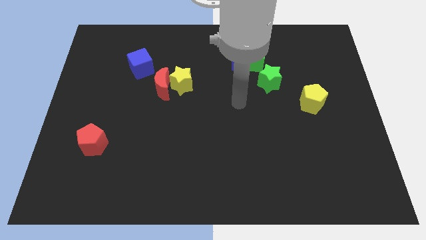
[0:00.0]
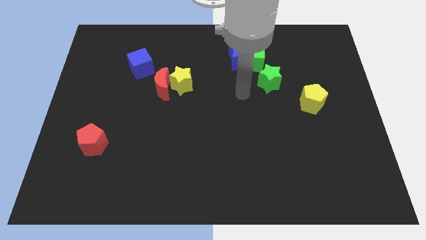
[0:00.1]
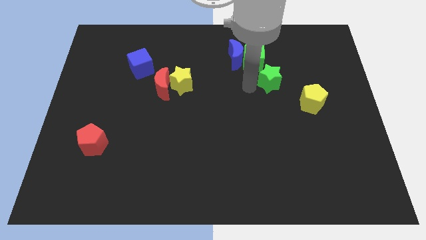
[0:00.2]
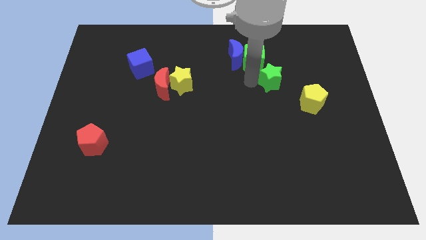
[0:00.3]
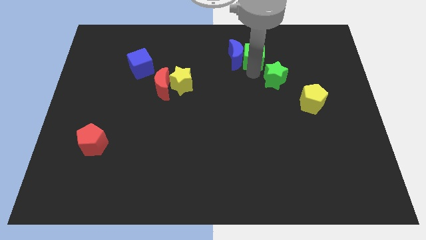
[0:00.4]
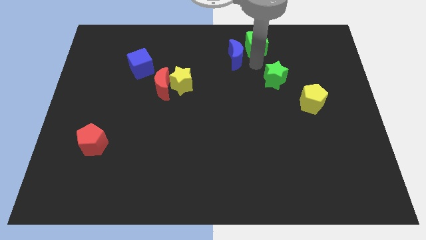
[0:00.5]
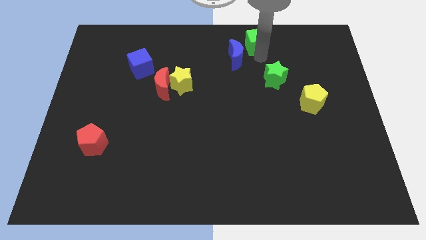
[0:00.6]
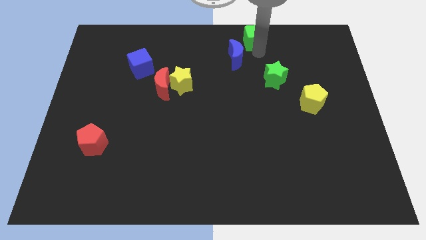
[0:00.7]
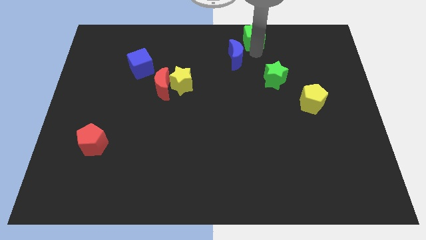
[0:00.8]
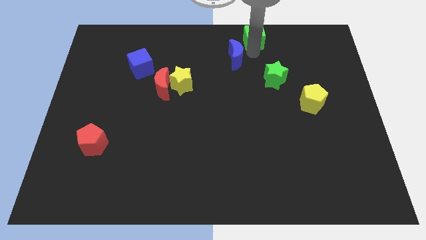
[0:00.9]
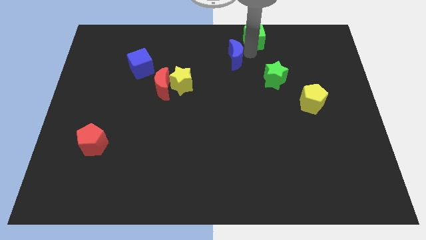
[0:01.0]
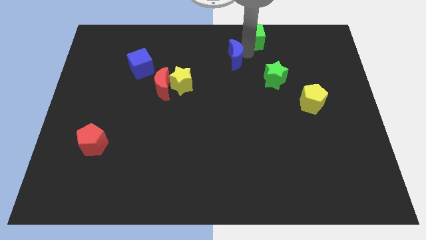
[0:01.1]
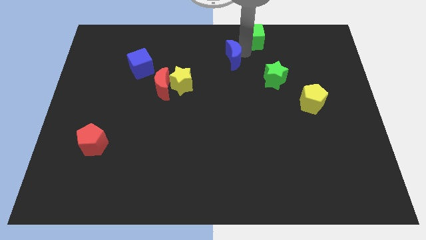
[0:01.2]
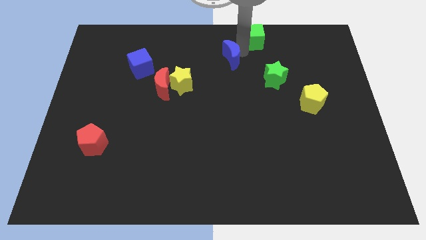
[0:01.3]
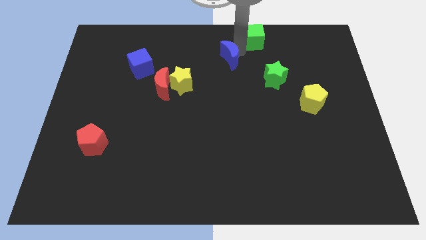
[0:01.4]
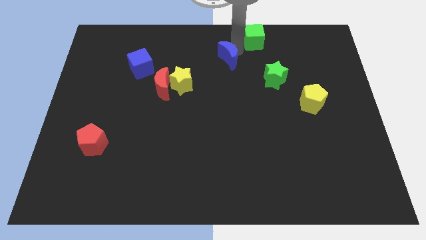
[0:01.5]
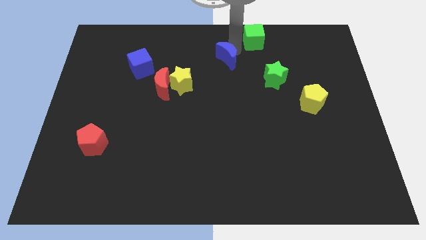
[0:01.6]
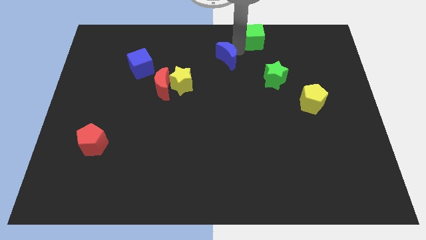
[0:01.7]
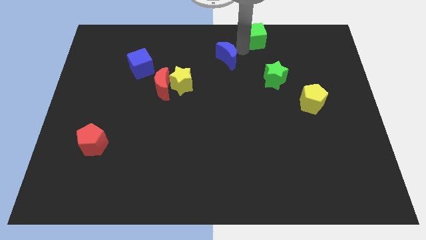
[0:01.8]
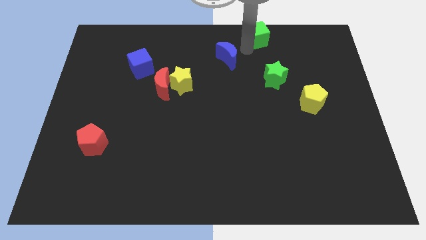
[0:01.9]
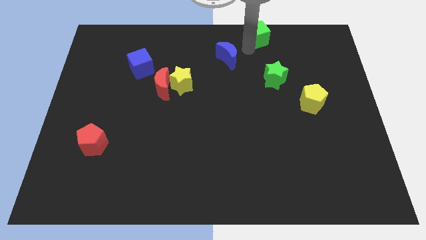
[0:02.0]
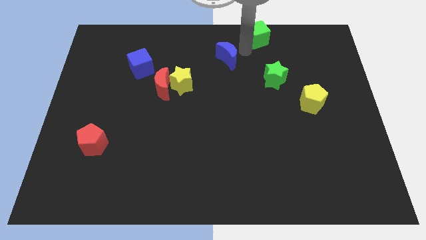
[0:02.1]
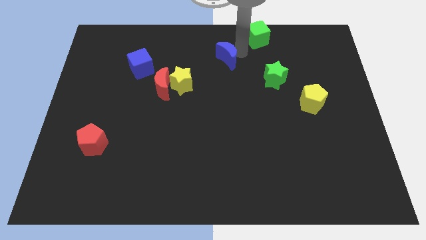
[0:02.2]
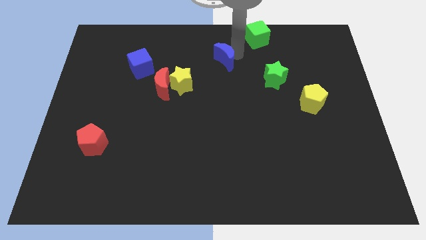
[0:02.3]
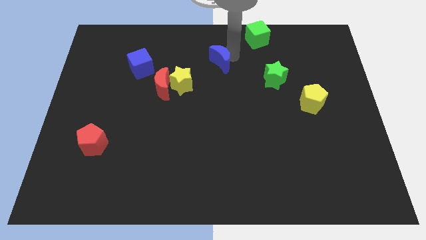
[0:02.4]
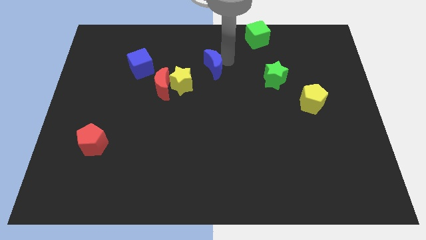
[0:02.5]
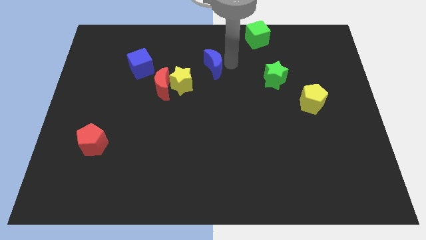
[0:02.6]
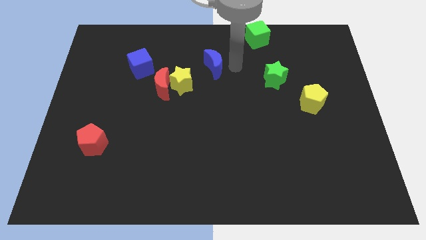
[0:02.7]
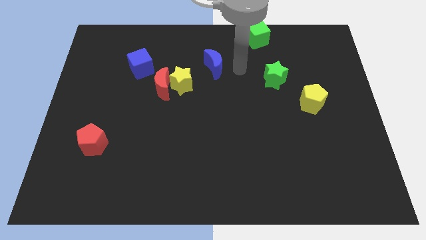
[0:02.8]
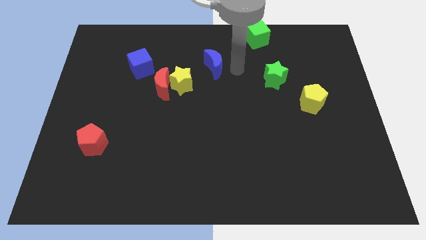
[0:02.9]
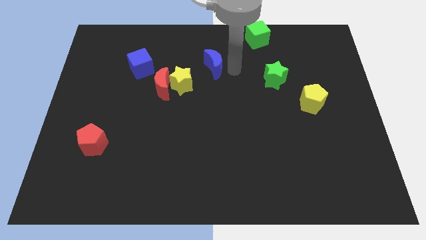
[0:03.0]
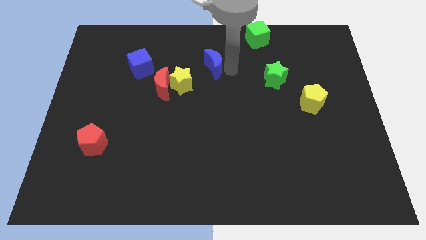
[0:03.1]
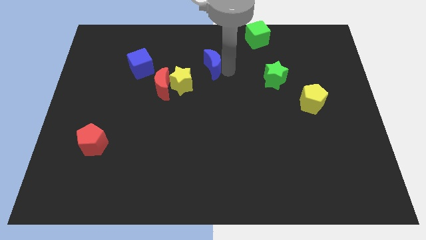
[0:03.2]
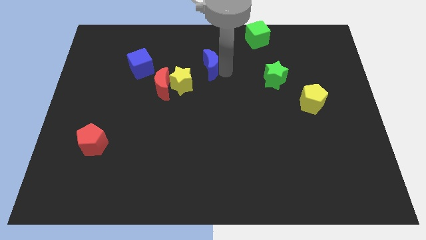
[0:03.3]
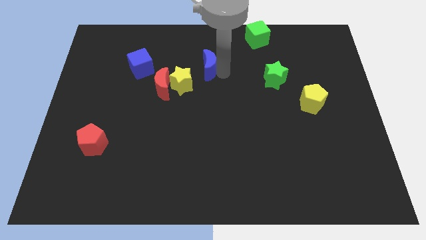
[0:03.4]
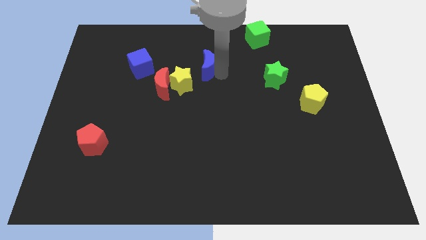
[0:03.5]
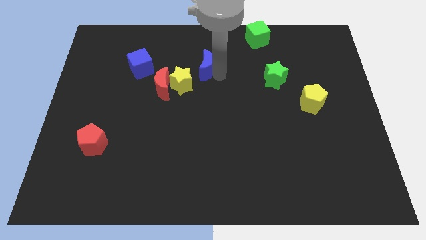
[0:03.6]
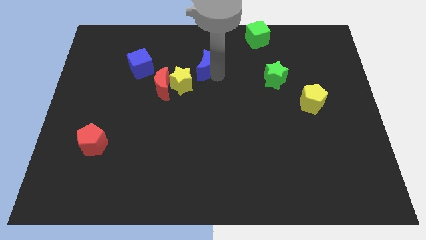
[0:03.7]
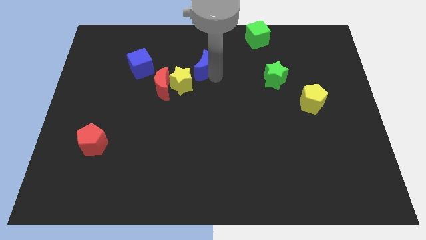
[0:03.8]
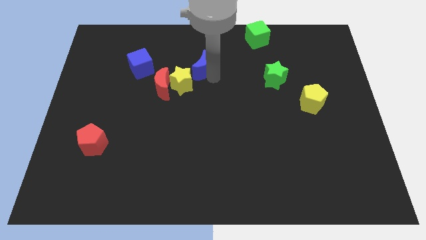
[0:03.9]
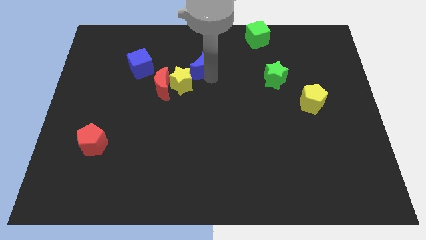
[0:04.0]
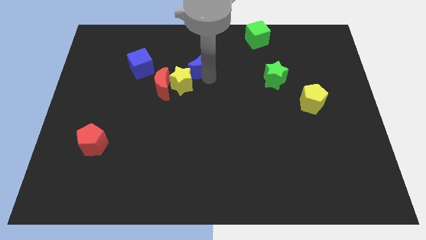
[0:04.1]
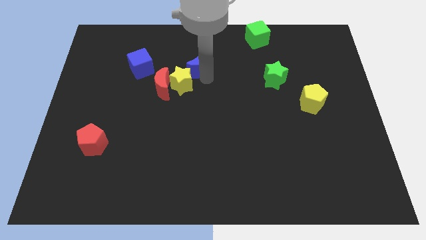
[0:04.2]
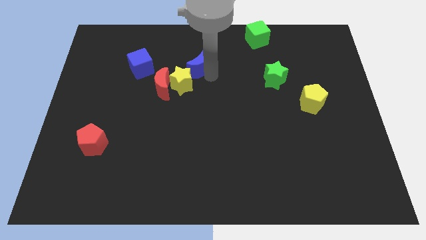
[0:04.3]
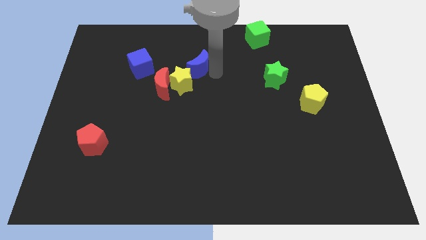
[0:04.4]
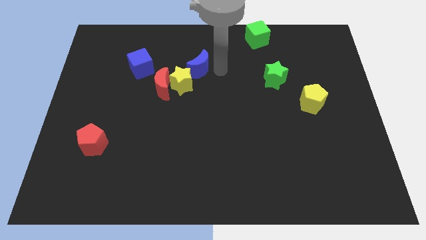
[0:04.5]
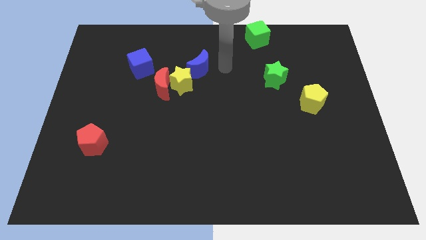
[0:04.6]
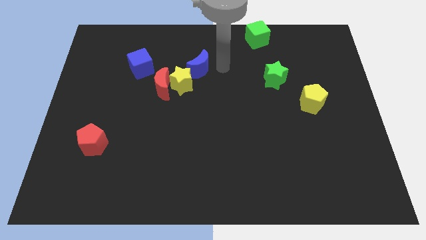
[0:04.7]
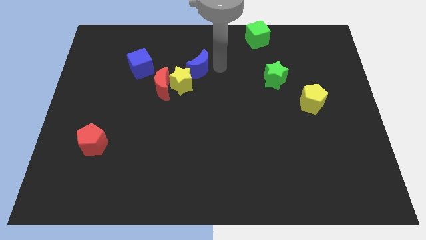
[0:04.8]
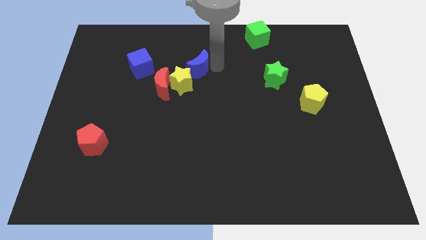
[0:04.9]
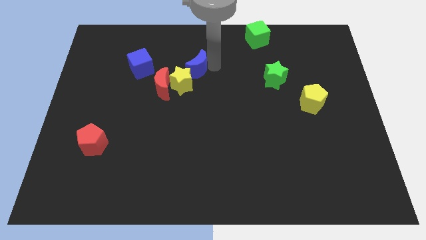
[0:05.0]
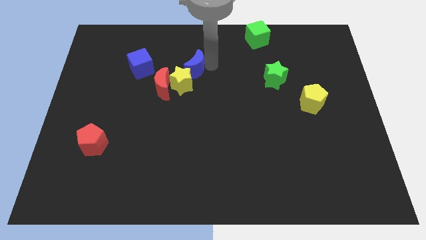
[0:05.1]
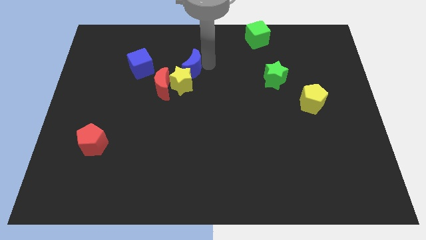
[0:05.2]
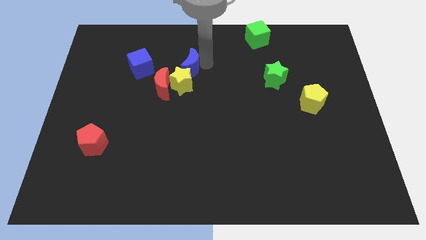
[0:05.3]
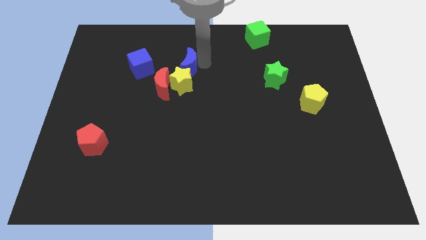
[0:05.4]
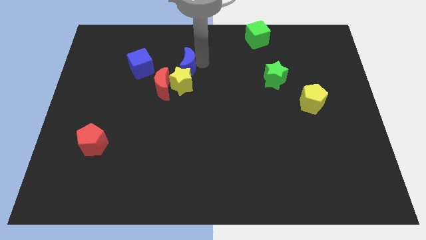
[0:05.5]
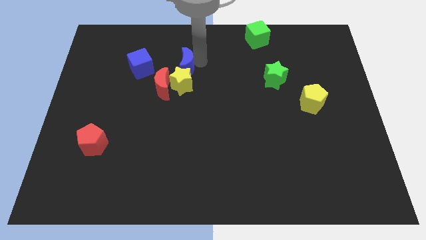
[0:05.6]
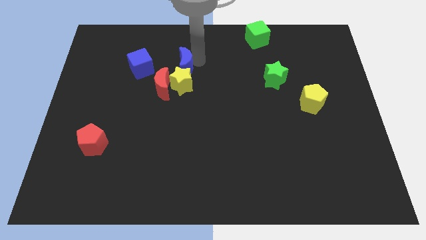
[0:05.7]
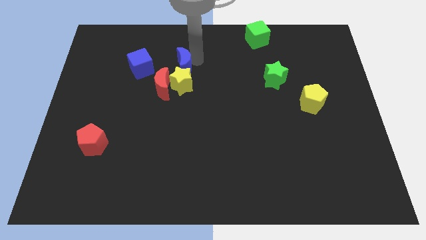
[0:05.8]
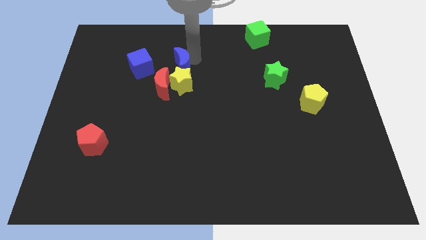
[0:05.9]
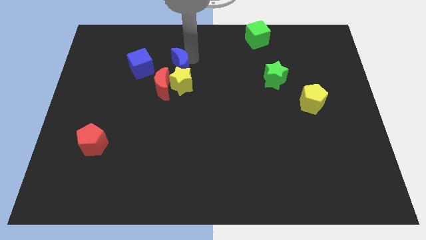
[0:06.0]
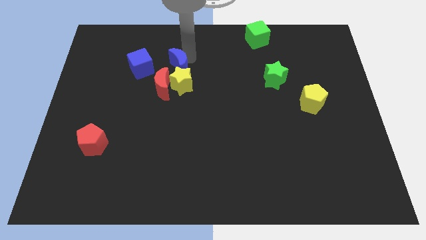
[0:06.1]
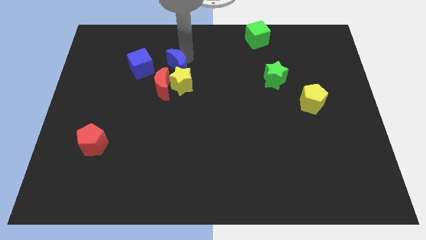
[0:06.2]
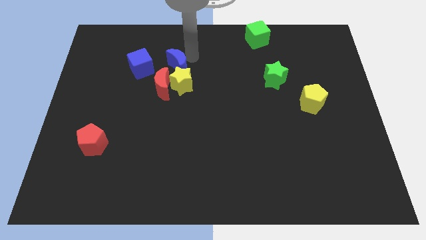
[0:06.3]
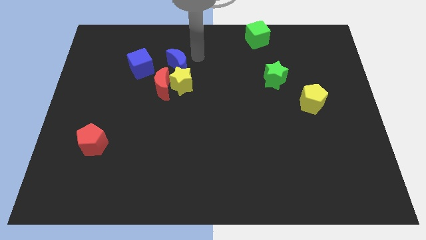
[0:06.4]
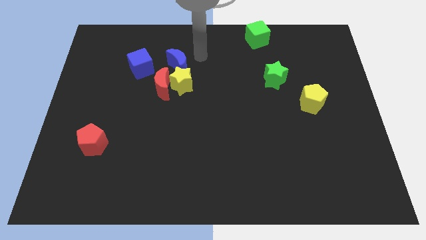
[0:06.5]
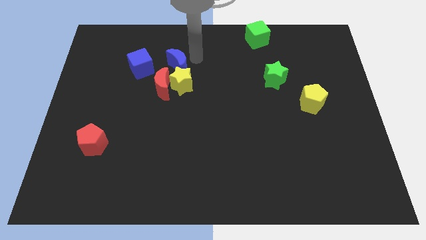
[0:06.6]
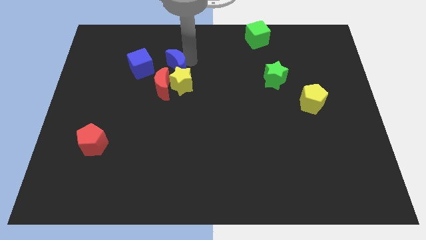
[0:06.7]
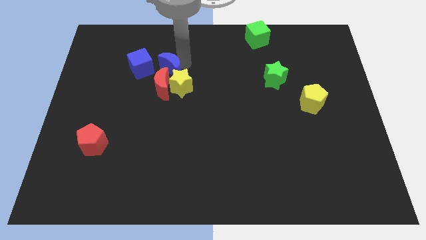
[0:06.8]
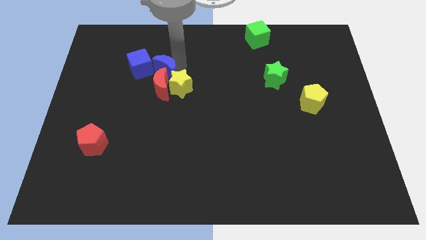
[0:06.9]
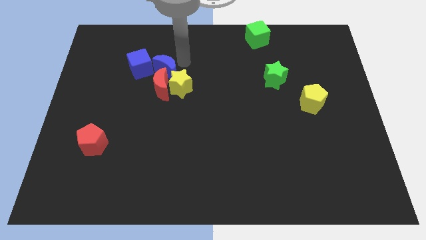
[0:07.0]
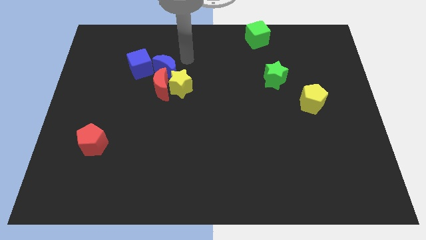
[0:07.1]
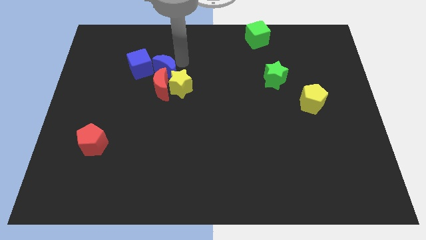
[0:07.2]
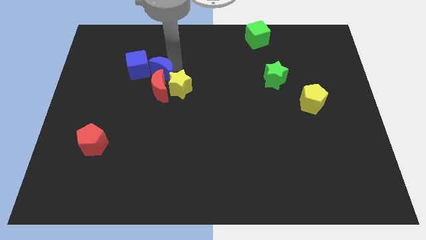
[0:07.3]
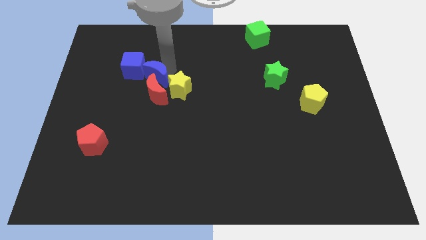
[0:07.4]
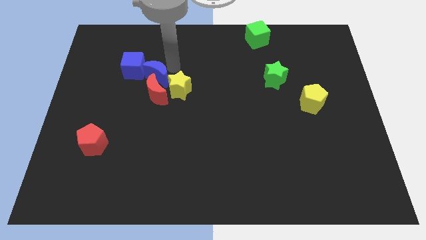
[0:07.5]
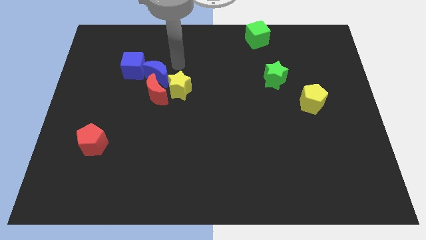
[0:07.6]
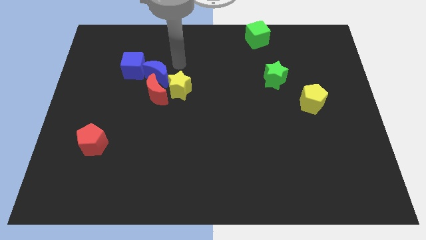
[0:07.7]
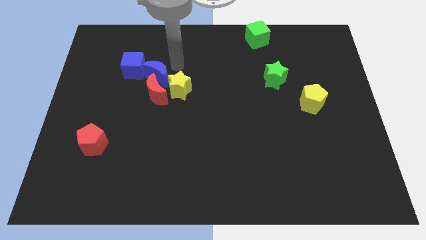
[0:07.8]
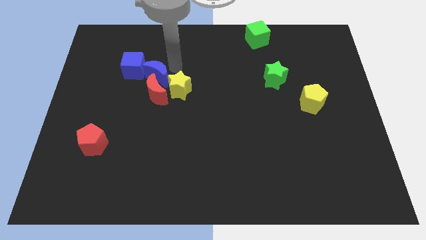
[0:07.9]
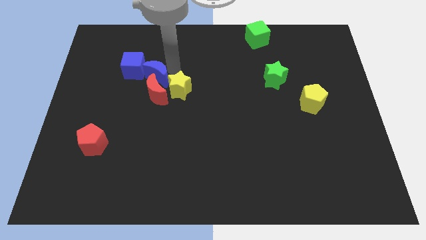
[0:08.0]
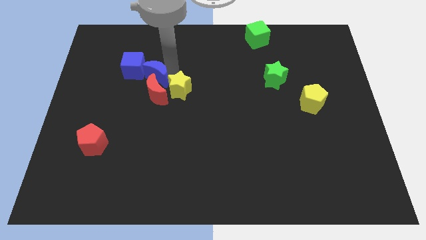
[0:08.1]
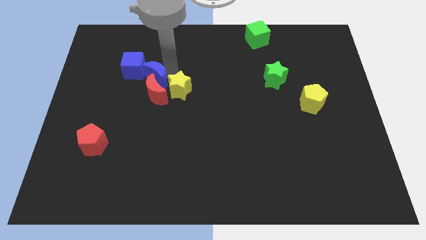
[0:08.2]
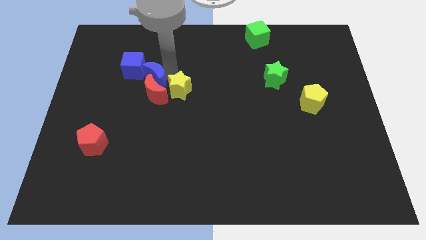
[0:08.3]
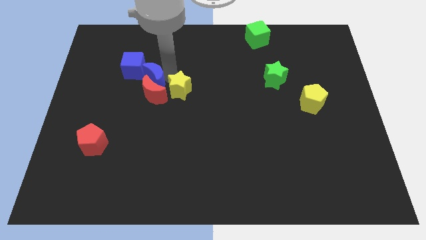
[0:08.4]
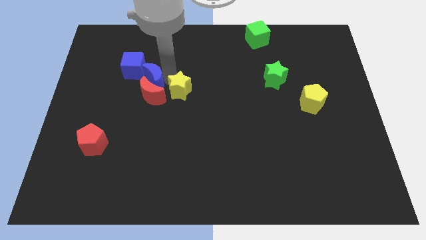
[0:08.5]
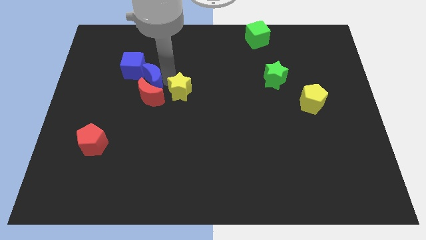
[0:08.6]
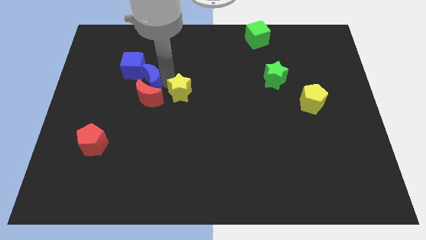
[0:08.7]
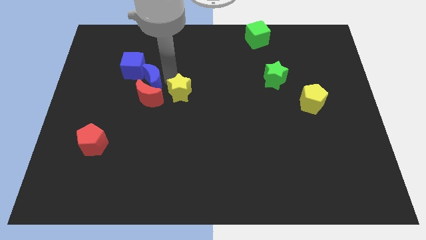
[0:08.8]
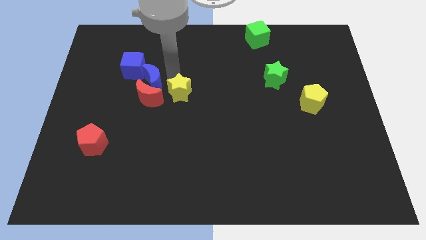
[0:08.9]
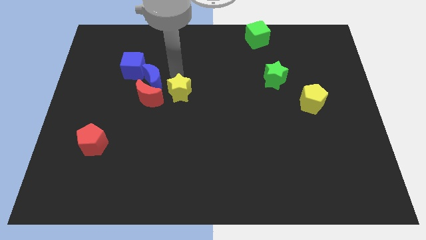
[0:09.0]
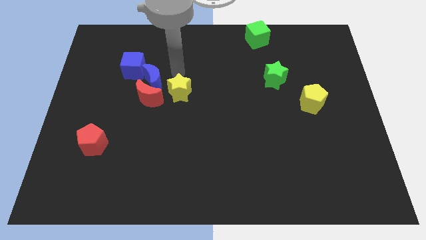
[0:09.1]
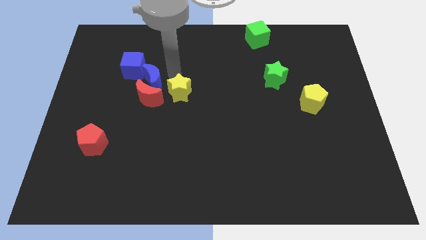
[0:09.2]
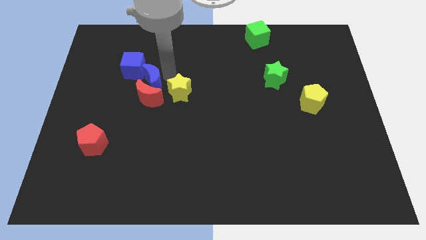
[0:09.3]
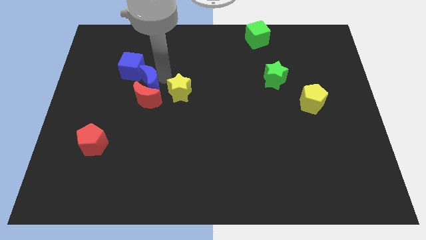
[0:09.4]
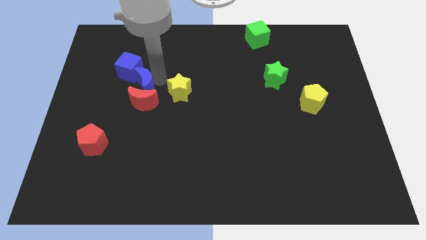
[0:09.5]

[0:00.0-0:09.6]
push the blue moon to the bottom of the blue cube
